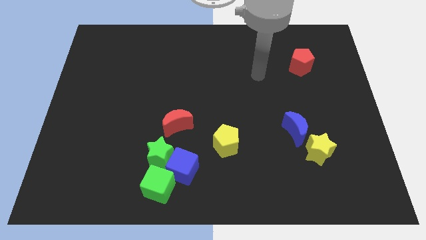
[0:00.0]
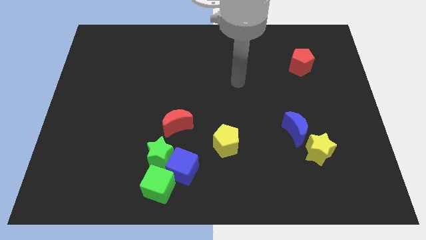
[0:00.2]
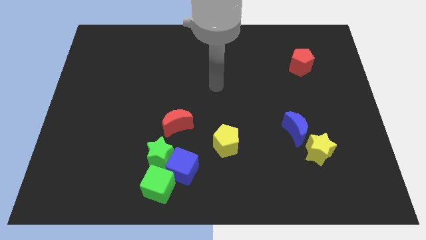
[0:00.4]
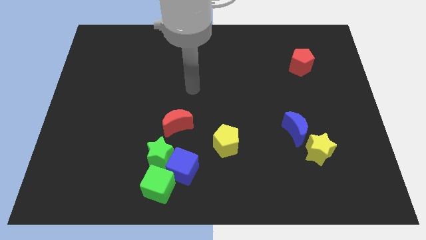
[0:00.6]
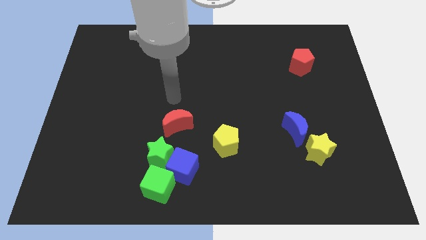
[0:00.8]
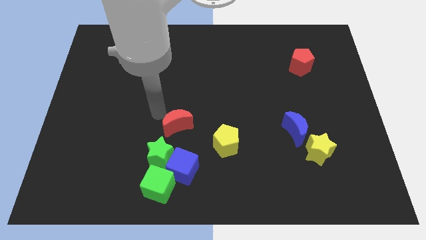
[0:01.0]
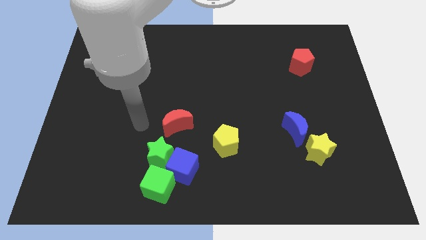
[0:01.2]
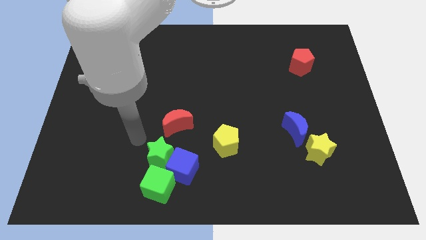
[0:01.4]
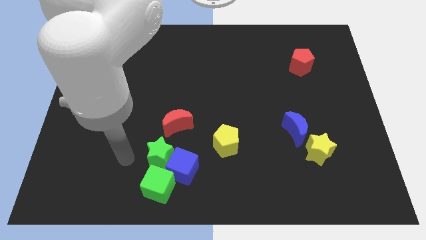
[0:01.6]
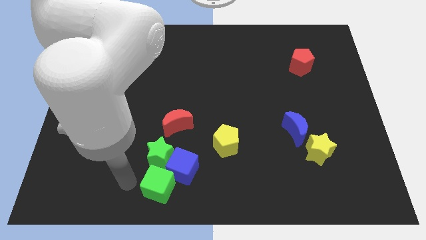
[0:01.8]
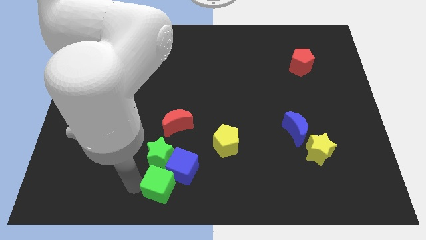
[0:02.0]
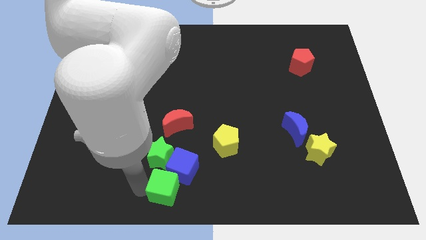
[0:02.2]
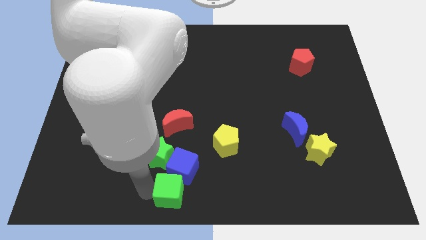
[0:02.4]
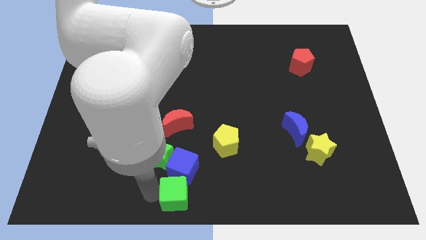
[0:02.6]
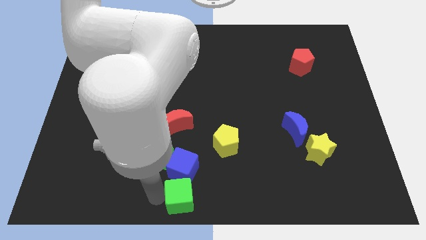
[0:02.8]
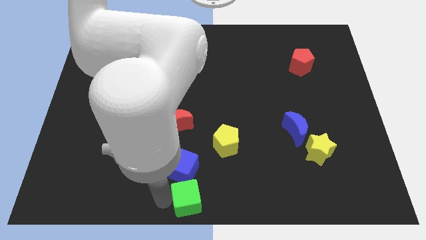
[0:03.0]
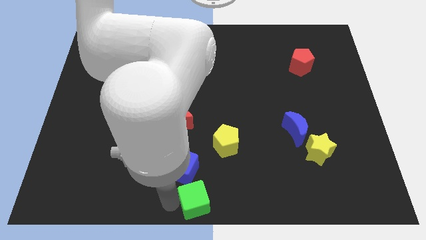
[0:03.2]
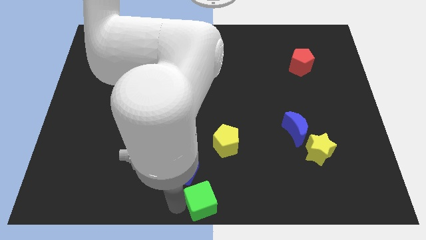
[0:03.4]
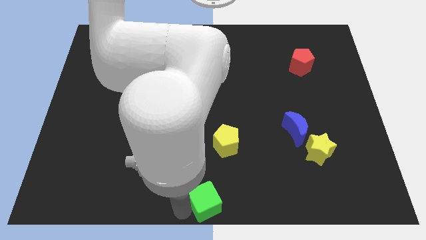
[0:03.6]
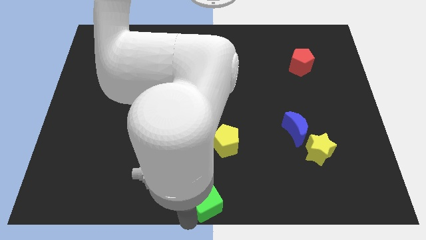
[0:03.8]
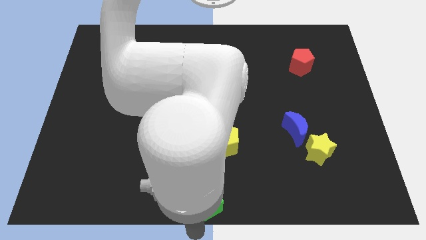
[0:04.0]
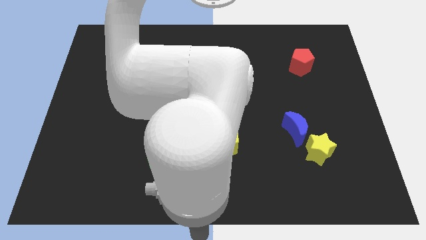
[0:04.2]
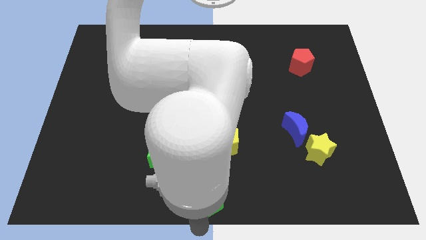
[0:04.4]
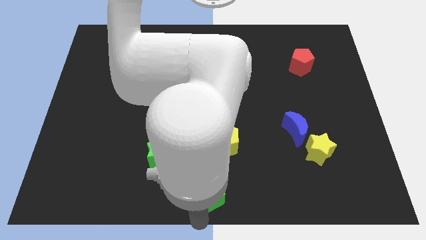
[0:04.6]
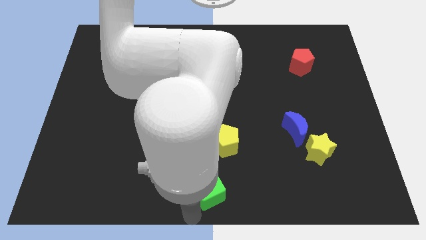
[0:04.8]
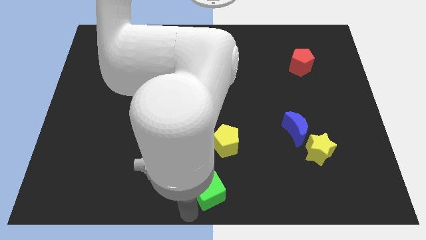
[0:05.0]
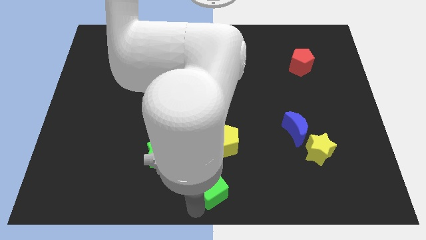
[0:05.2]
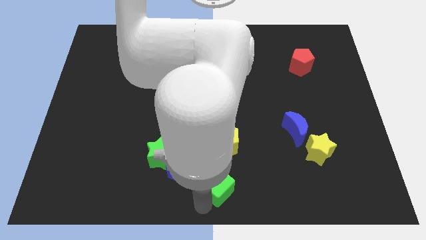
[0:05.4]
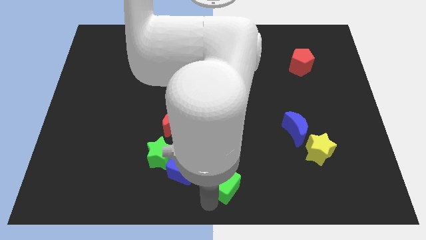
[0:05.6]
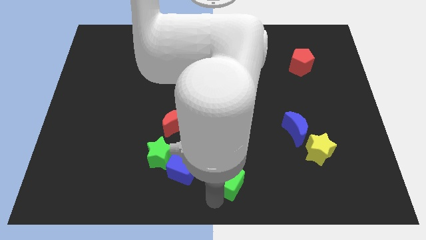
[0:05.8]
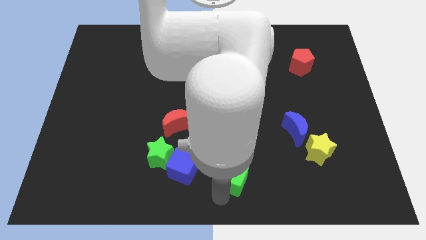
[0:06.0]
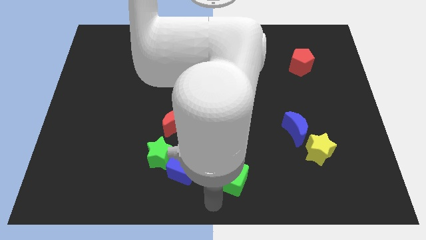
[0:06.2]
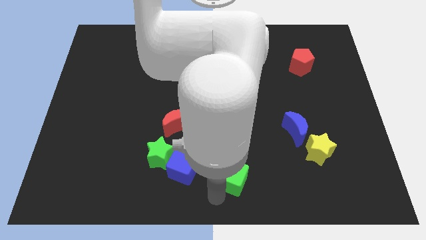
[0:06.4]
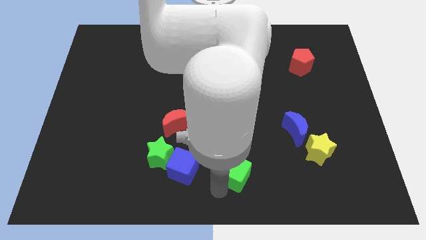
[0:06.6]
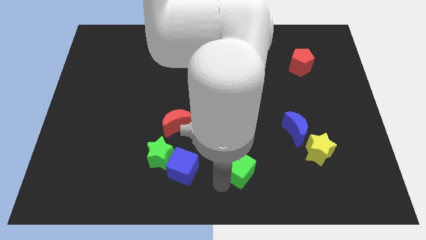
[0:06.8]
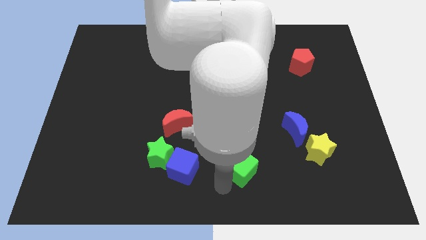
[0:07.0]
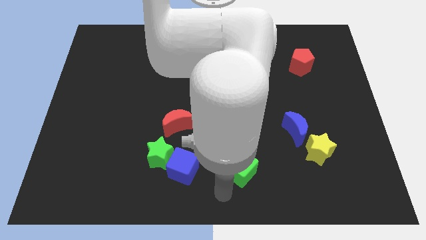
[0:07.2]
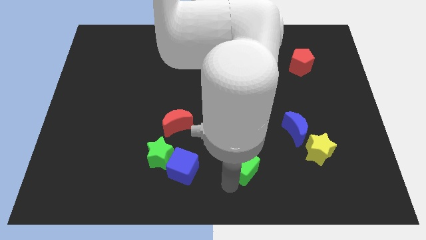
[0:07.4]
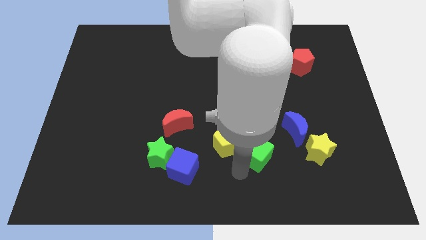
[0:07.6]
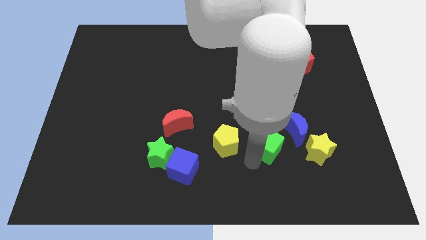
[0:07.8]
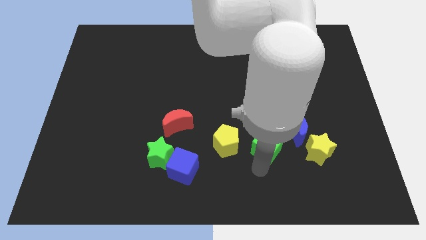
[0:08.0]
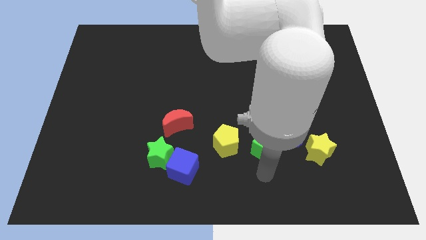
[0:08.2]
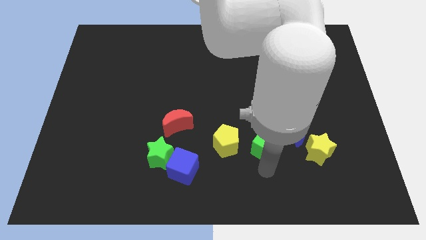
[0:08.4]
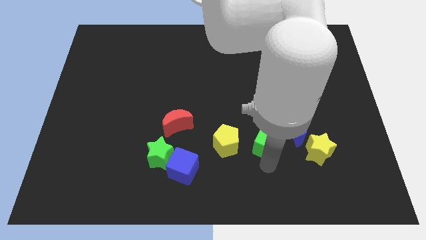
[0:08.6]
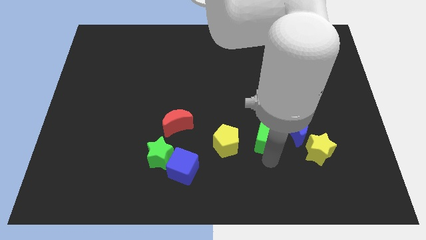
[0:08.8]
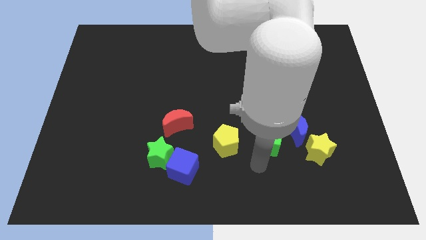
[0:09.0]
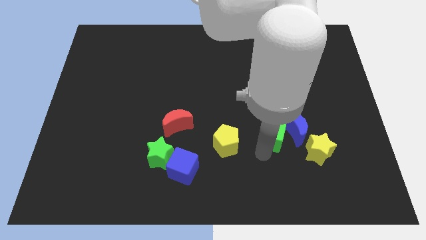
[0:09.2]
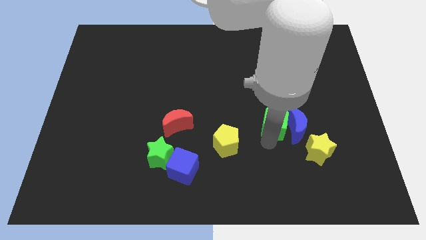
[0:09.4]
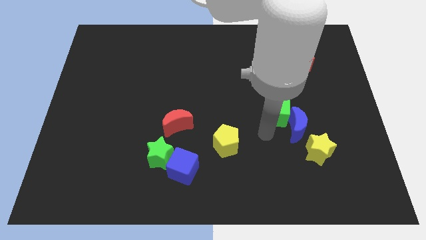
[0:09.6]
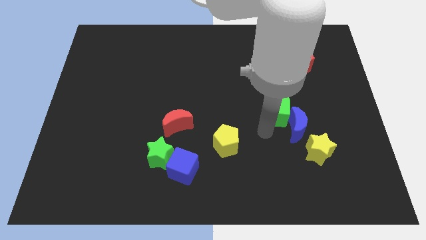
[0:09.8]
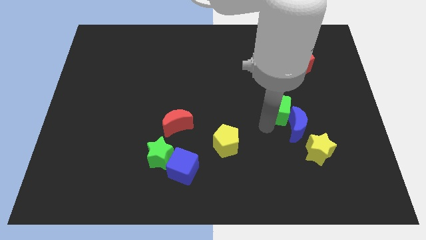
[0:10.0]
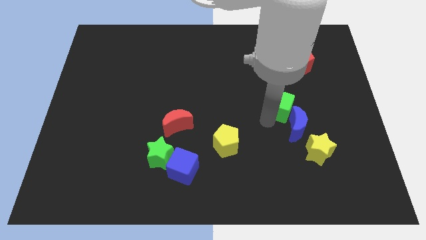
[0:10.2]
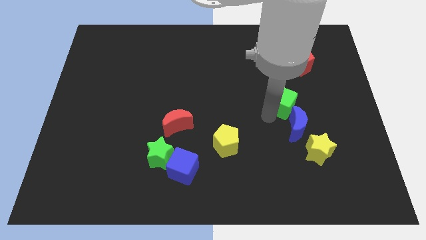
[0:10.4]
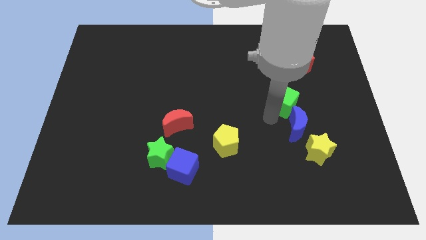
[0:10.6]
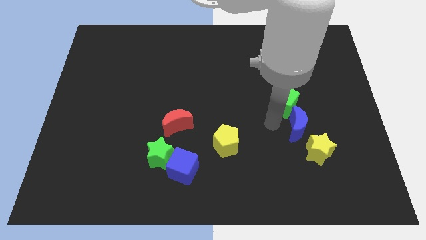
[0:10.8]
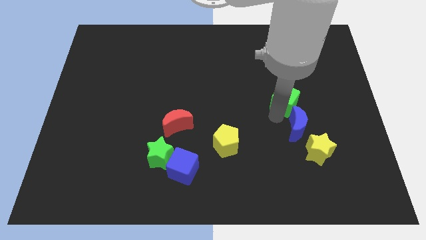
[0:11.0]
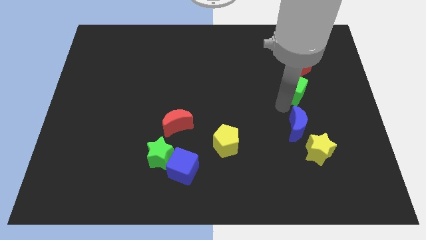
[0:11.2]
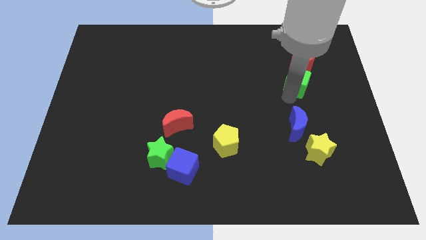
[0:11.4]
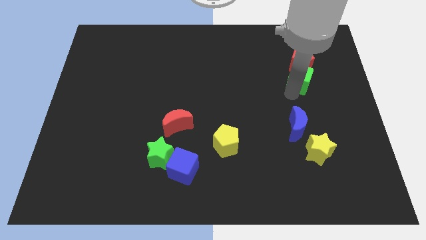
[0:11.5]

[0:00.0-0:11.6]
put the green cube to the red pentagon
